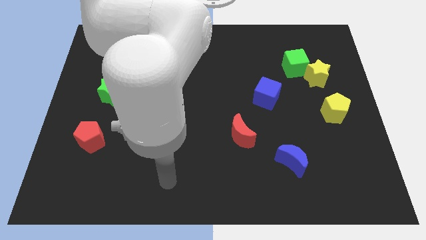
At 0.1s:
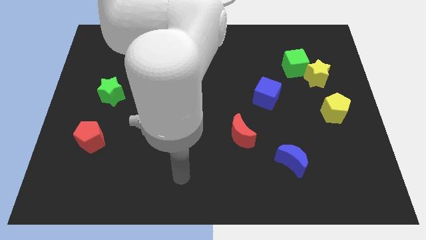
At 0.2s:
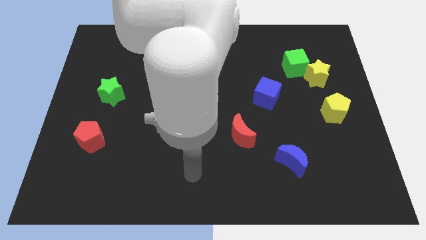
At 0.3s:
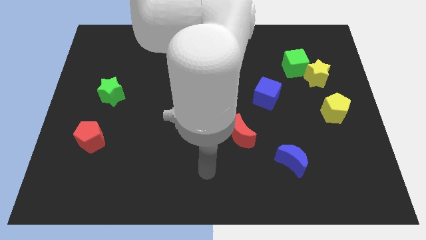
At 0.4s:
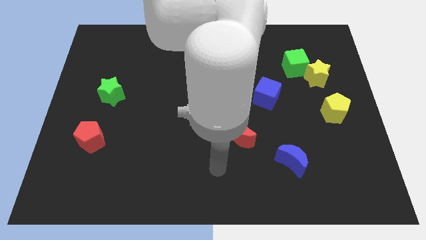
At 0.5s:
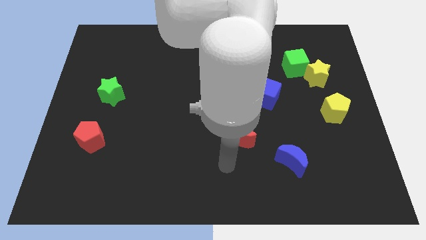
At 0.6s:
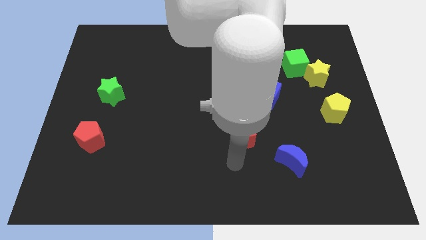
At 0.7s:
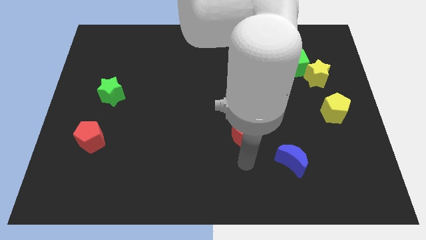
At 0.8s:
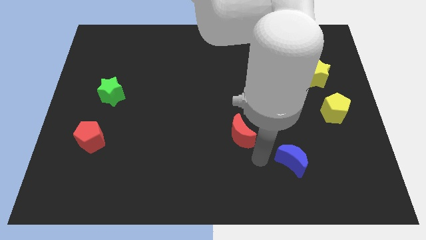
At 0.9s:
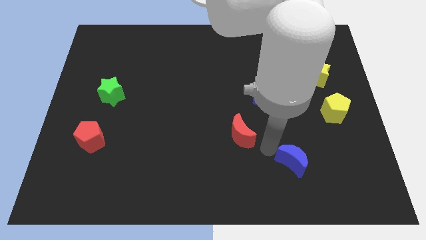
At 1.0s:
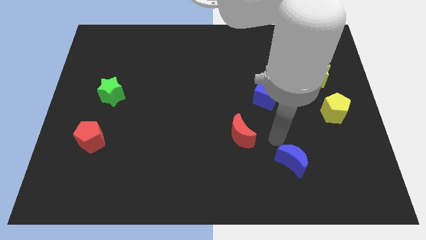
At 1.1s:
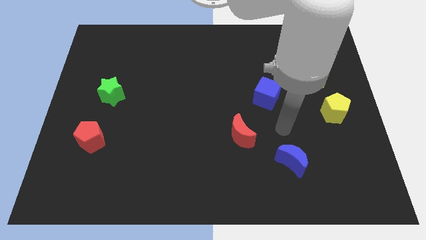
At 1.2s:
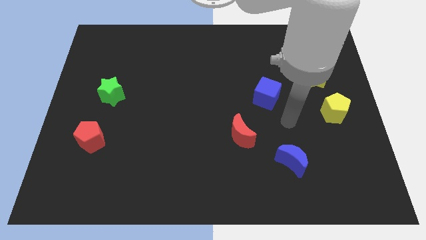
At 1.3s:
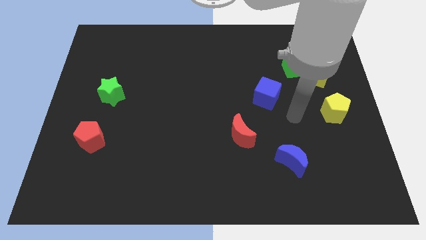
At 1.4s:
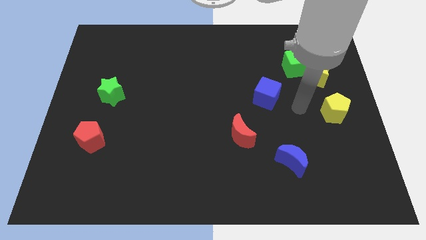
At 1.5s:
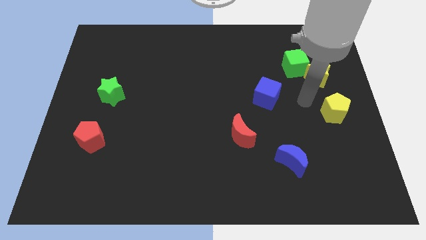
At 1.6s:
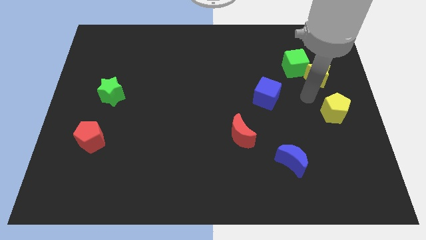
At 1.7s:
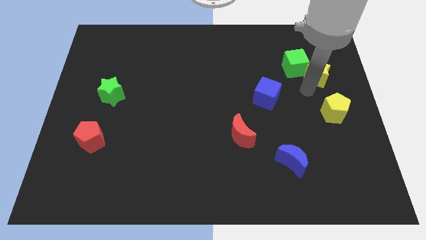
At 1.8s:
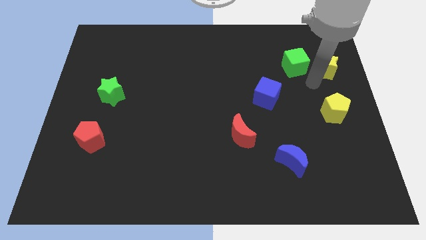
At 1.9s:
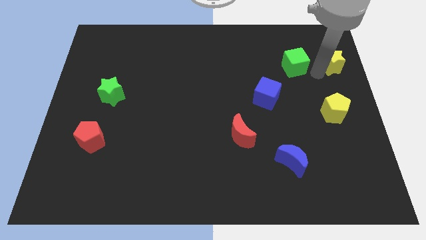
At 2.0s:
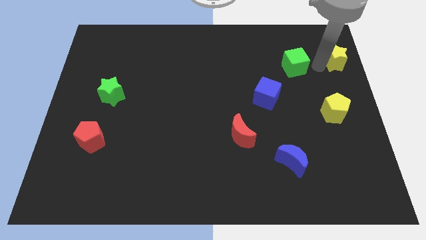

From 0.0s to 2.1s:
pull the green cube apart from the yellow star

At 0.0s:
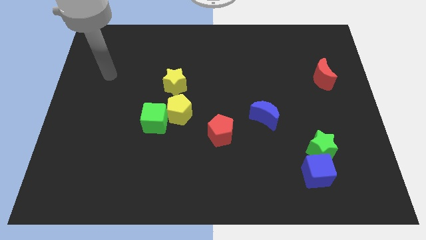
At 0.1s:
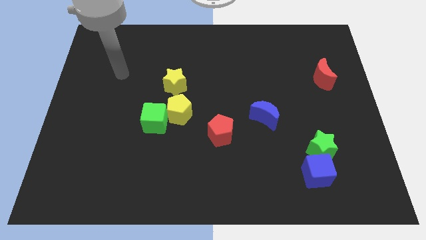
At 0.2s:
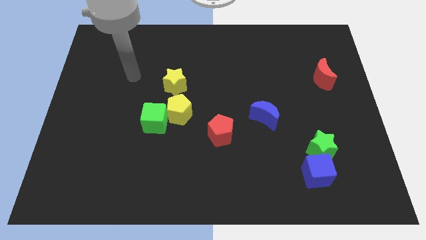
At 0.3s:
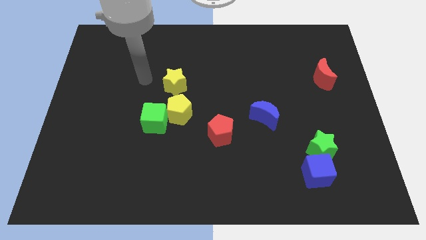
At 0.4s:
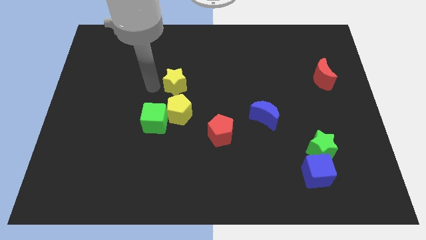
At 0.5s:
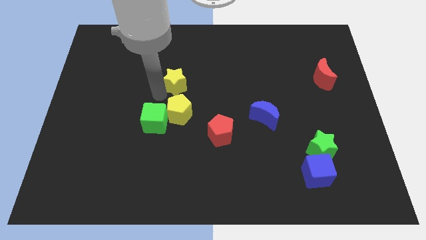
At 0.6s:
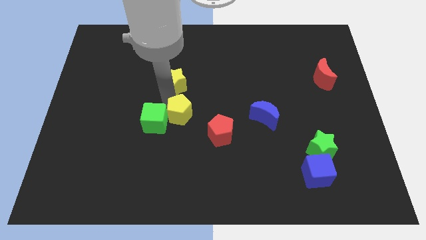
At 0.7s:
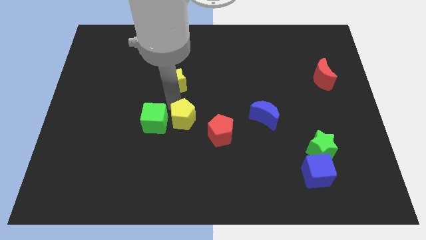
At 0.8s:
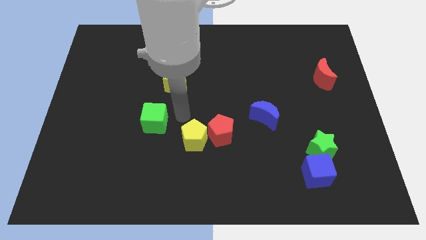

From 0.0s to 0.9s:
pull the green cube apart from the yellow pentagon

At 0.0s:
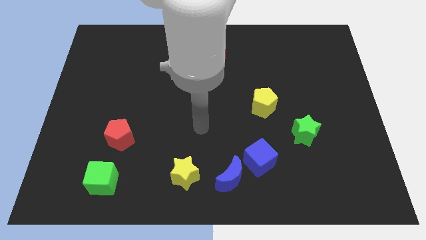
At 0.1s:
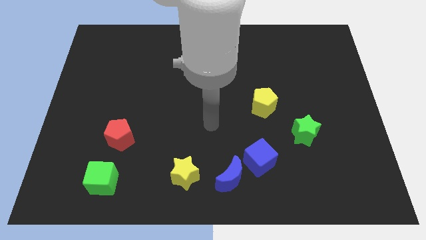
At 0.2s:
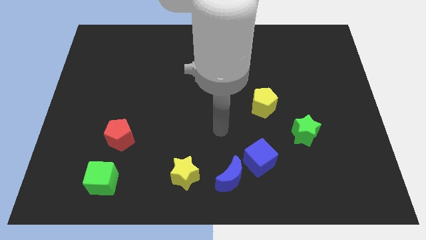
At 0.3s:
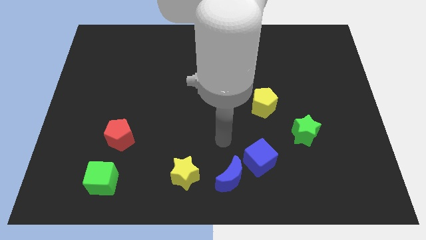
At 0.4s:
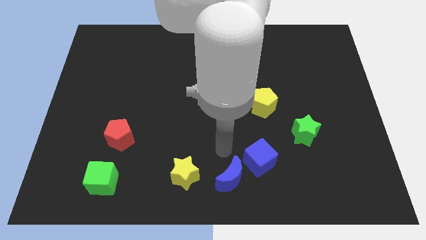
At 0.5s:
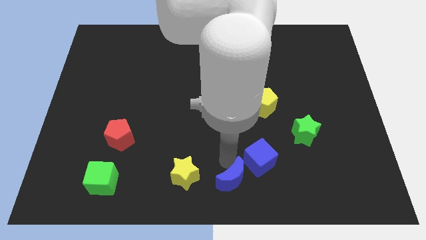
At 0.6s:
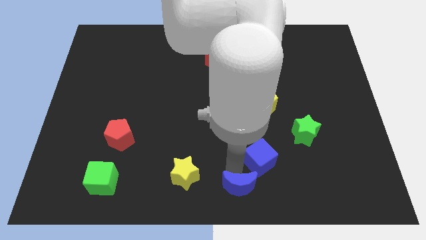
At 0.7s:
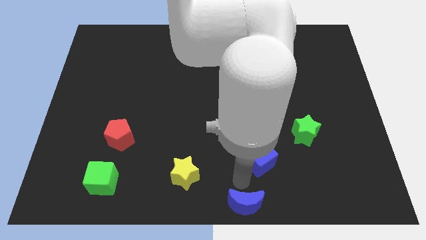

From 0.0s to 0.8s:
move the blue cube away from the blue moon

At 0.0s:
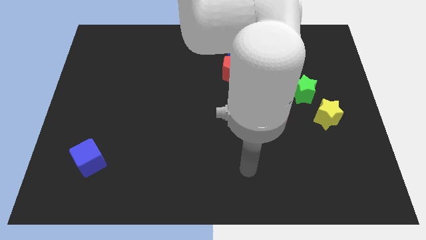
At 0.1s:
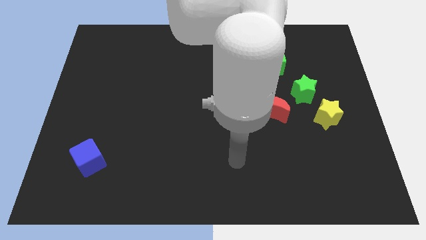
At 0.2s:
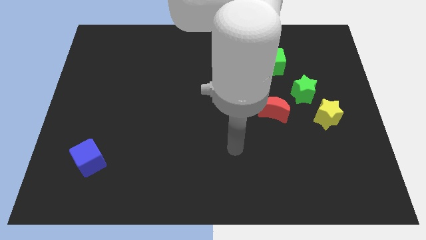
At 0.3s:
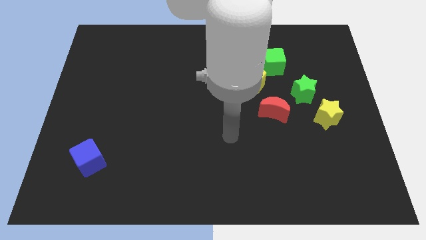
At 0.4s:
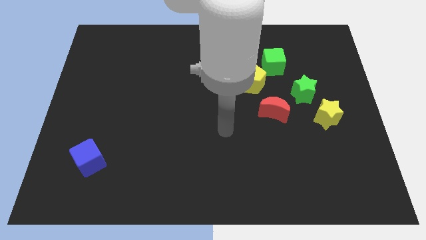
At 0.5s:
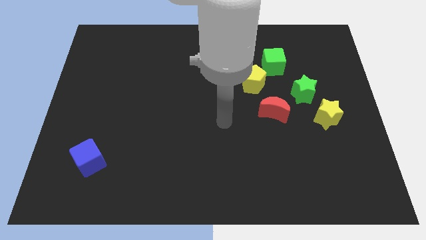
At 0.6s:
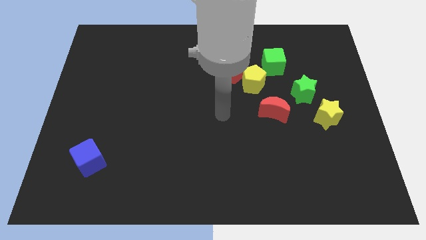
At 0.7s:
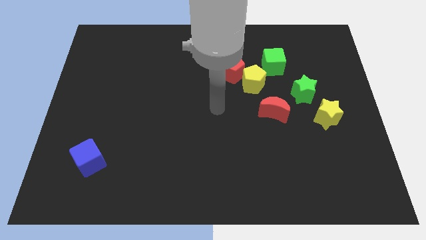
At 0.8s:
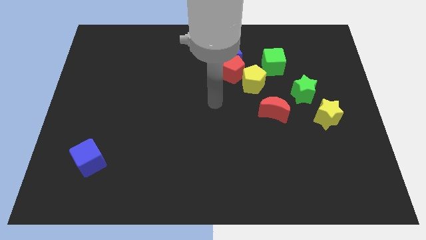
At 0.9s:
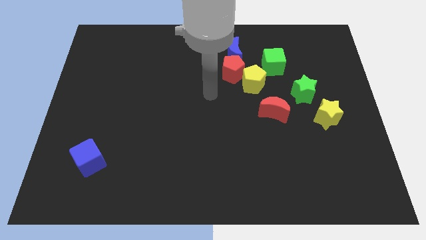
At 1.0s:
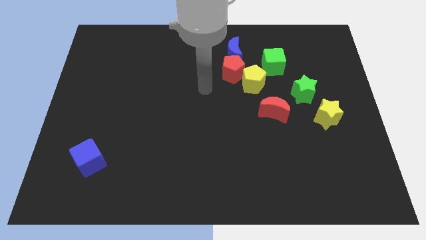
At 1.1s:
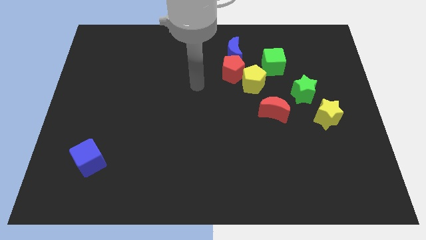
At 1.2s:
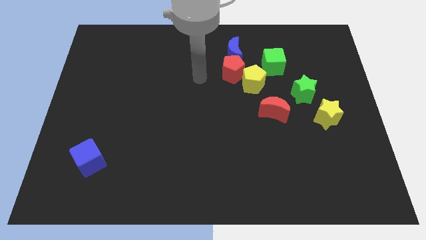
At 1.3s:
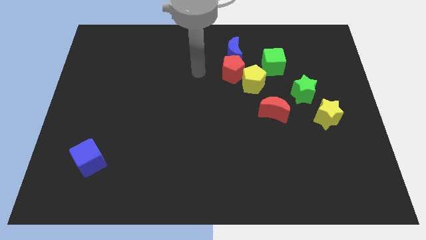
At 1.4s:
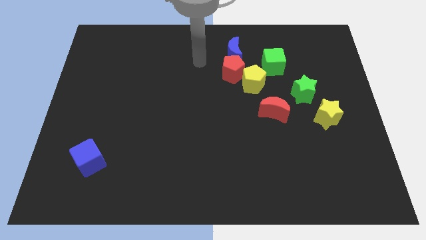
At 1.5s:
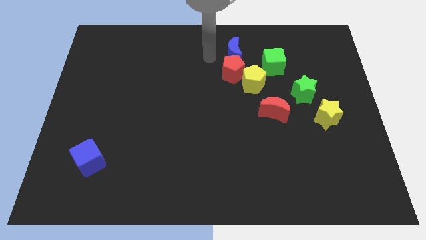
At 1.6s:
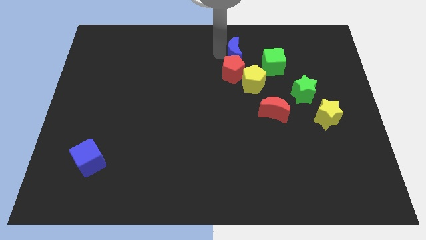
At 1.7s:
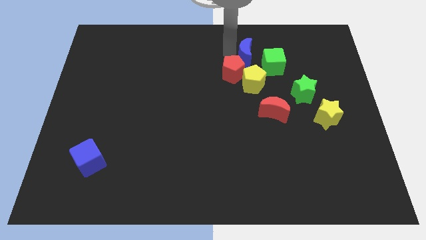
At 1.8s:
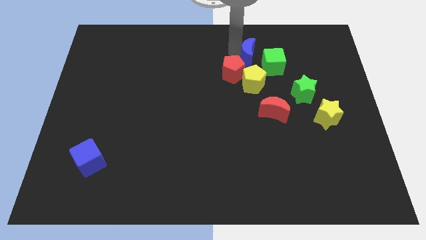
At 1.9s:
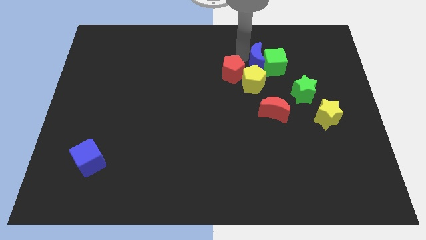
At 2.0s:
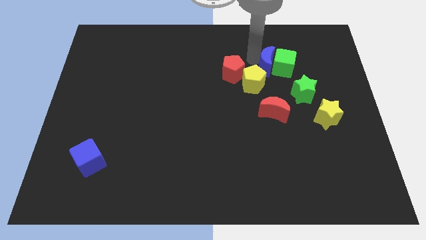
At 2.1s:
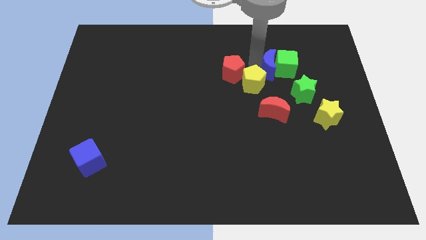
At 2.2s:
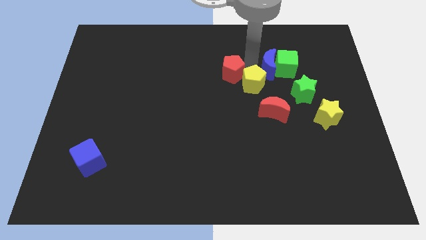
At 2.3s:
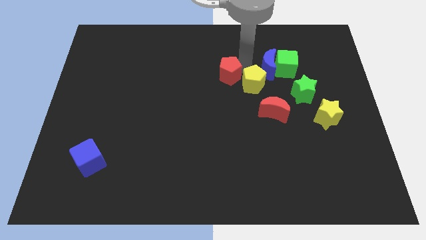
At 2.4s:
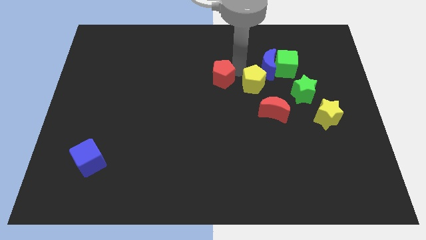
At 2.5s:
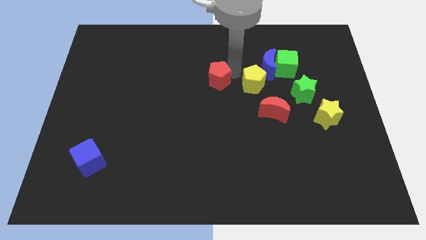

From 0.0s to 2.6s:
pull the red pentagon apart from the yellow pentagon and blue moon

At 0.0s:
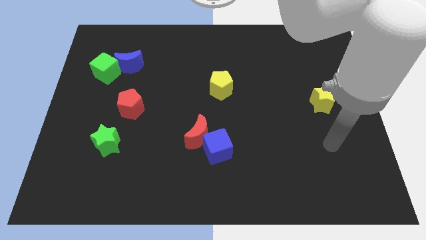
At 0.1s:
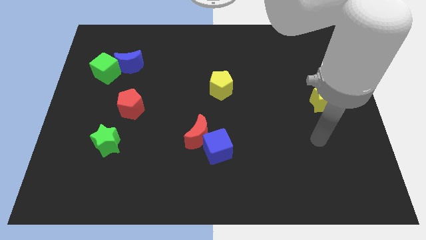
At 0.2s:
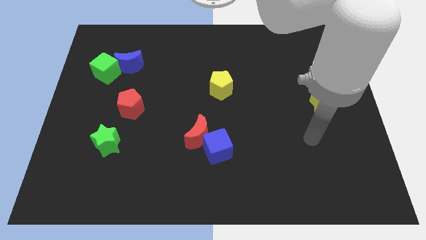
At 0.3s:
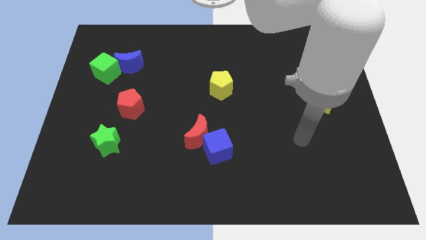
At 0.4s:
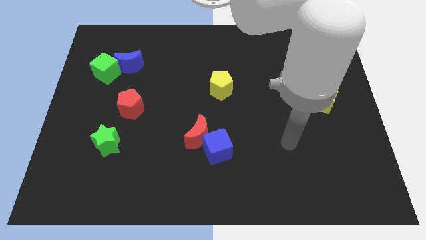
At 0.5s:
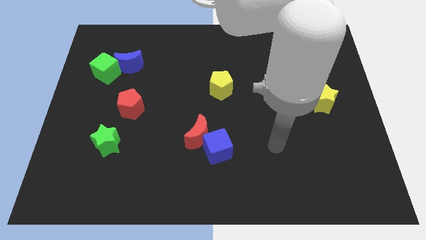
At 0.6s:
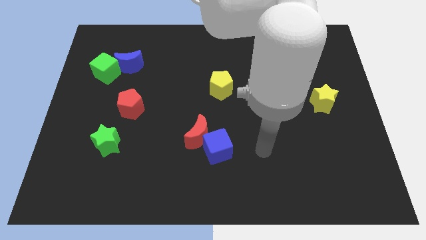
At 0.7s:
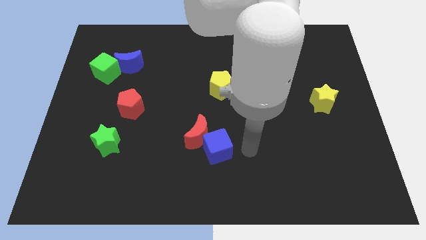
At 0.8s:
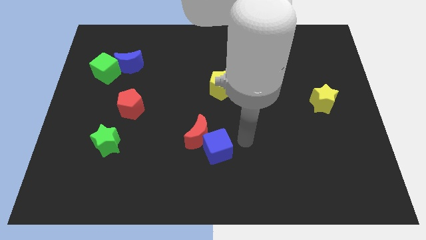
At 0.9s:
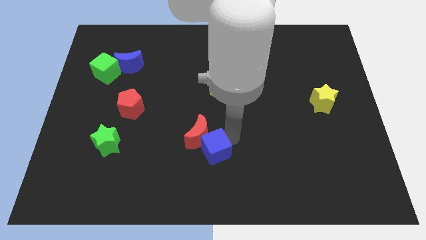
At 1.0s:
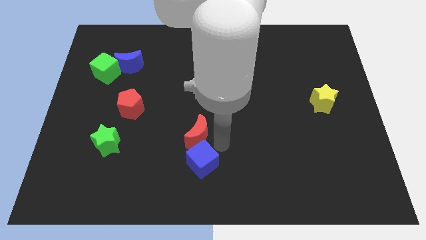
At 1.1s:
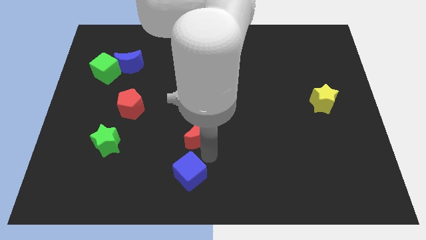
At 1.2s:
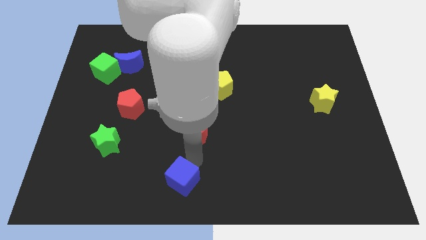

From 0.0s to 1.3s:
separate the red moon from the blue cube

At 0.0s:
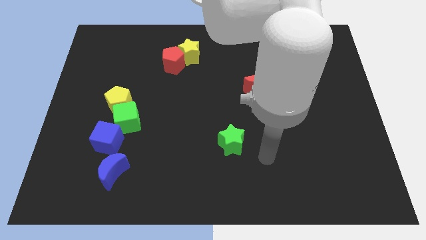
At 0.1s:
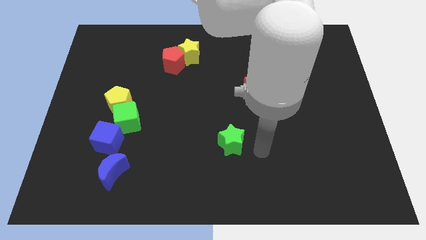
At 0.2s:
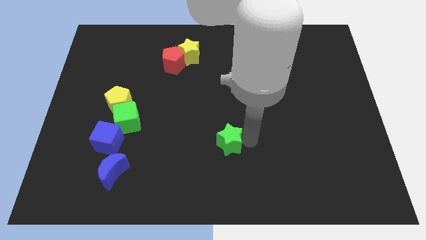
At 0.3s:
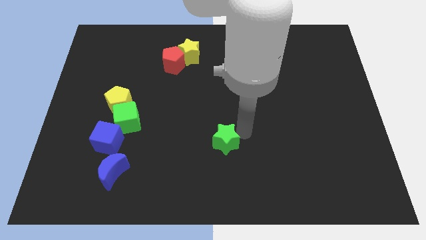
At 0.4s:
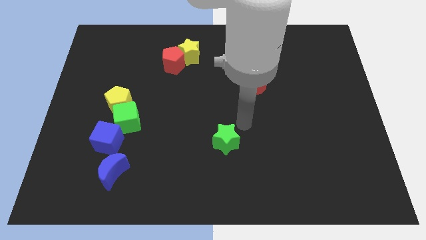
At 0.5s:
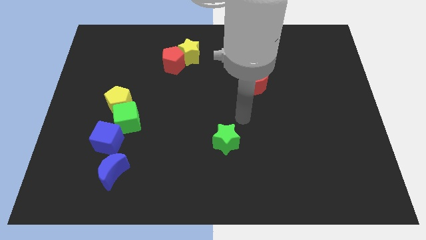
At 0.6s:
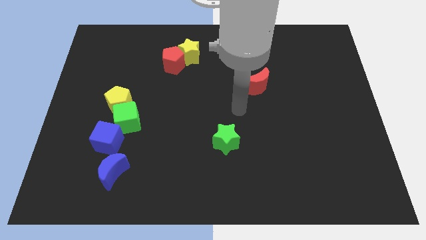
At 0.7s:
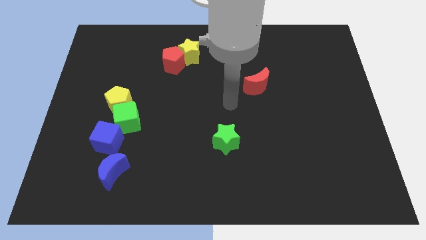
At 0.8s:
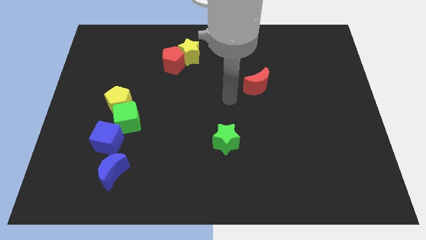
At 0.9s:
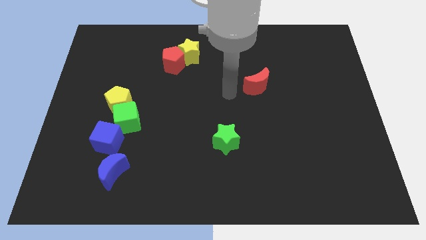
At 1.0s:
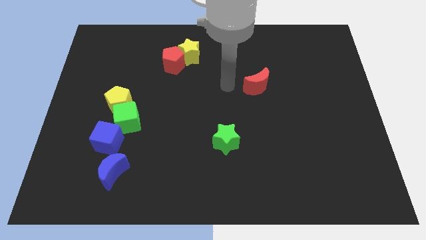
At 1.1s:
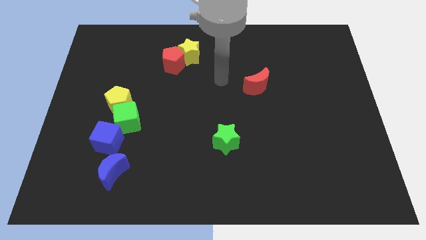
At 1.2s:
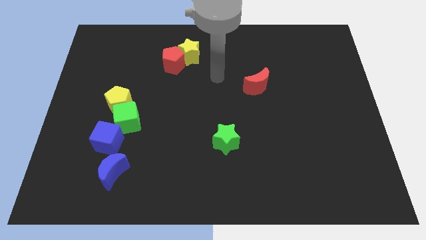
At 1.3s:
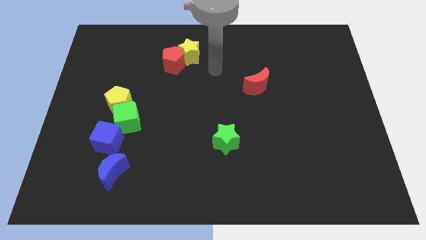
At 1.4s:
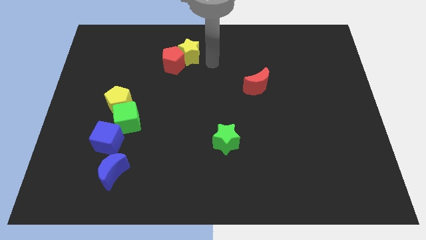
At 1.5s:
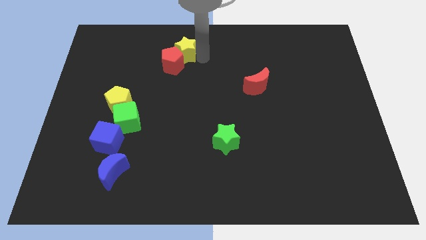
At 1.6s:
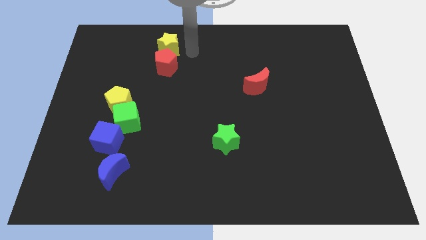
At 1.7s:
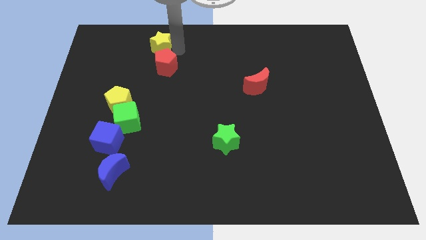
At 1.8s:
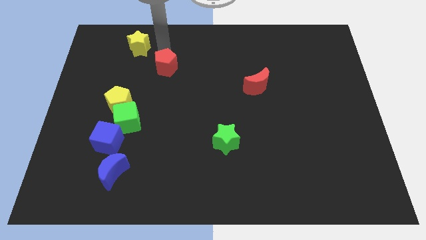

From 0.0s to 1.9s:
move the red pentagon away from the yellow star
